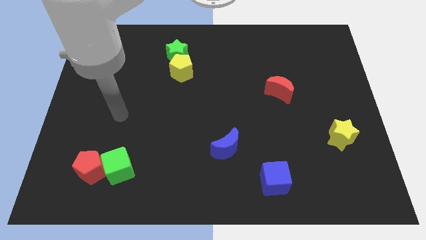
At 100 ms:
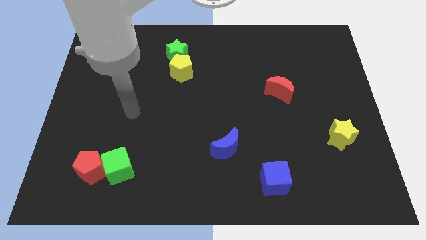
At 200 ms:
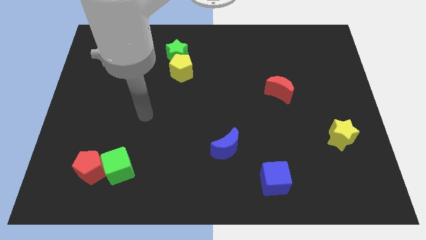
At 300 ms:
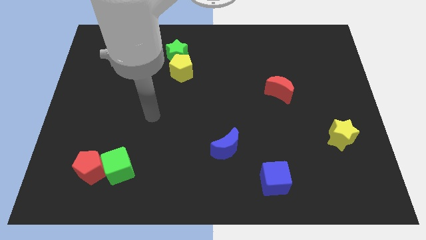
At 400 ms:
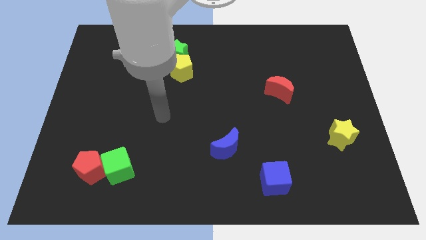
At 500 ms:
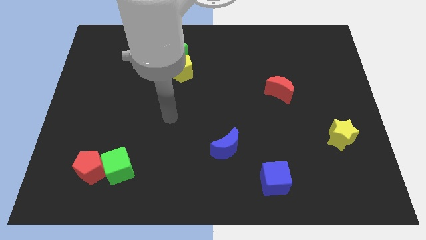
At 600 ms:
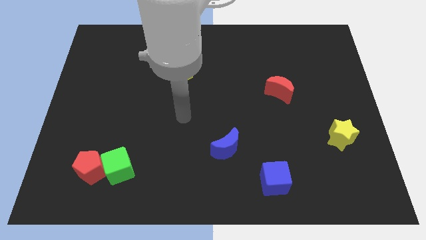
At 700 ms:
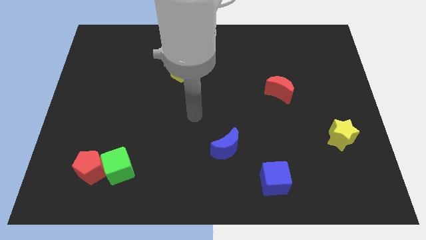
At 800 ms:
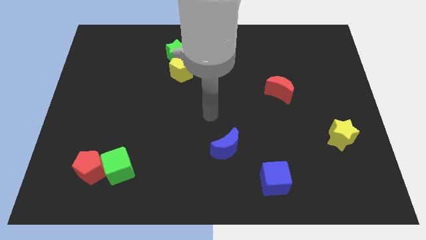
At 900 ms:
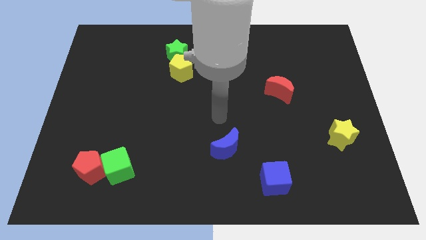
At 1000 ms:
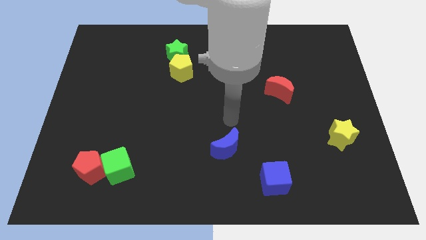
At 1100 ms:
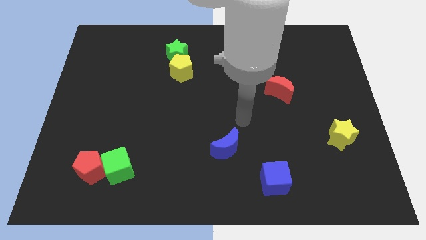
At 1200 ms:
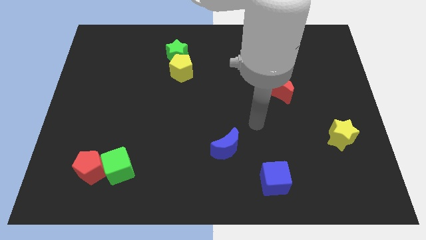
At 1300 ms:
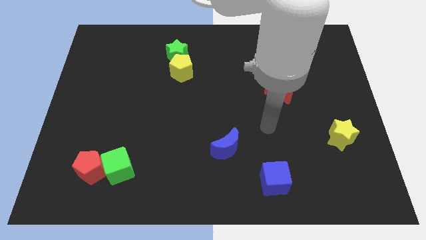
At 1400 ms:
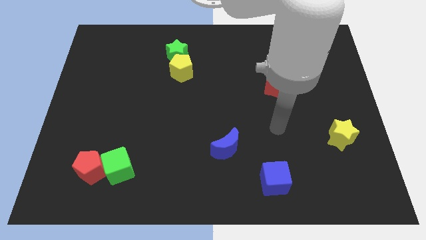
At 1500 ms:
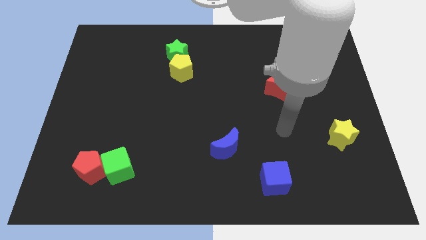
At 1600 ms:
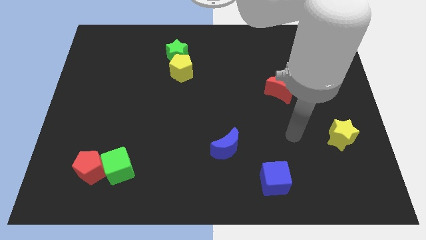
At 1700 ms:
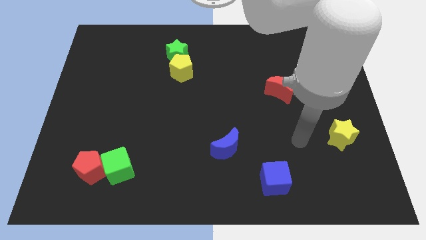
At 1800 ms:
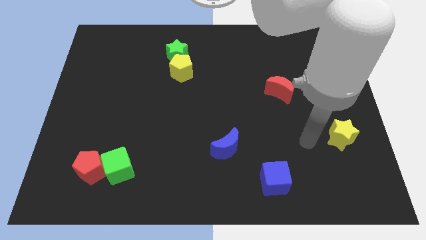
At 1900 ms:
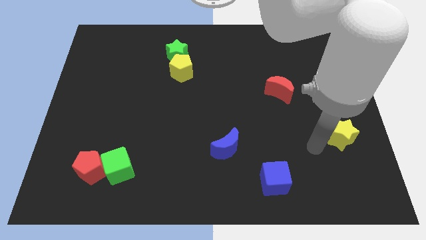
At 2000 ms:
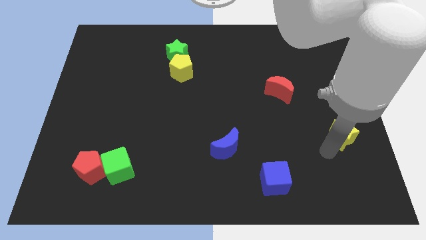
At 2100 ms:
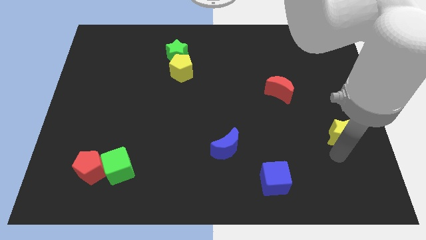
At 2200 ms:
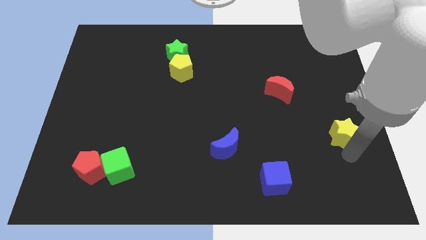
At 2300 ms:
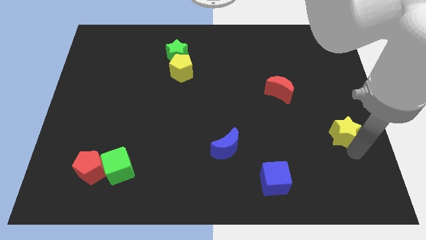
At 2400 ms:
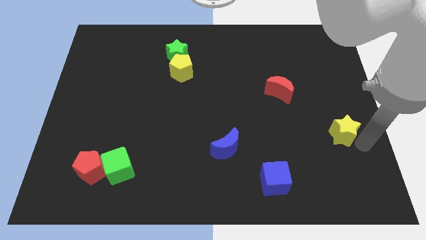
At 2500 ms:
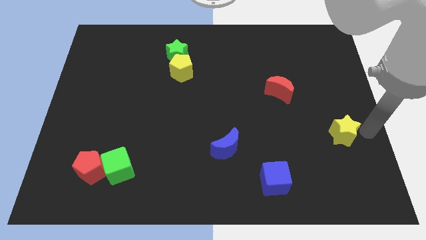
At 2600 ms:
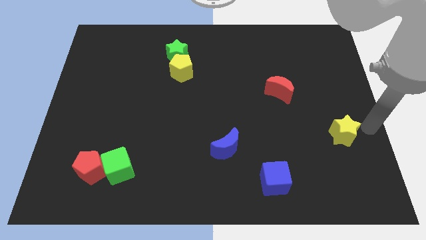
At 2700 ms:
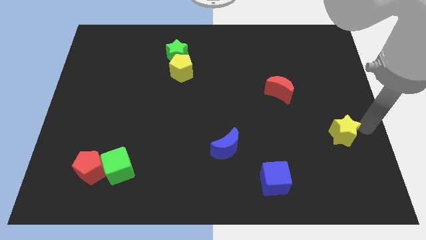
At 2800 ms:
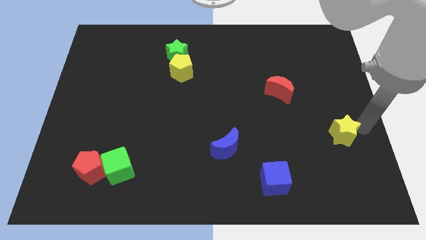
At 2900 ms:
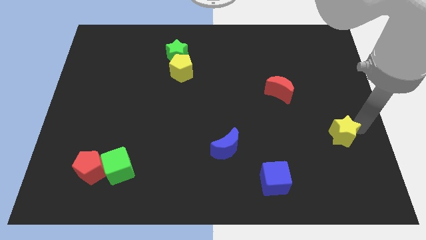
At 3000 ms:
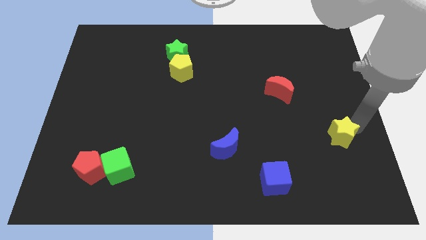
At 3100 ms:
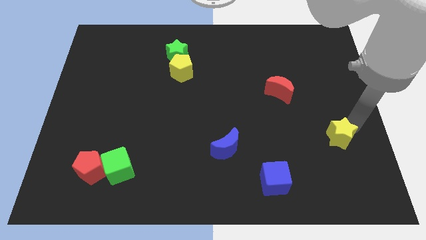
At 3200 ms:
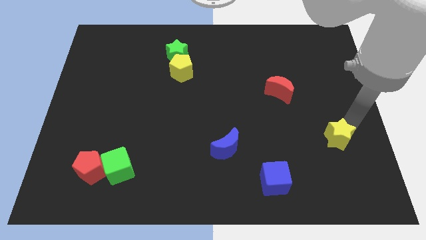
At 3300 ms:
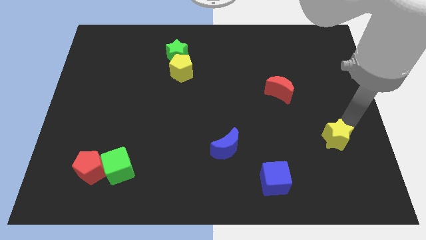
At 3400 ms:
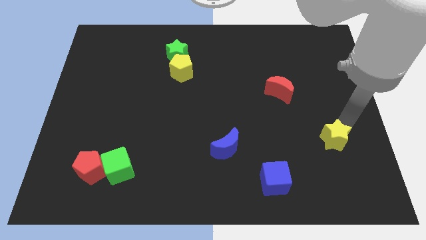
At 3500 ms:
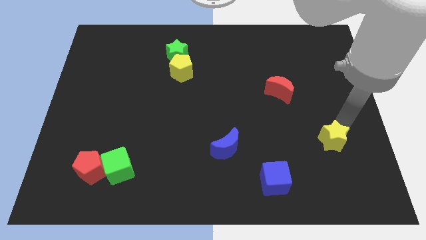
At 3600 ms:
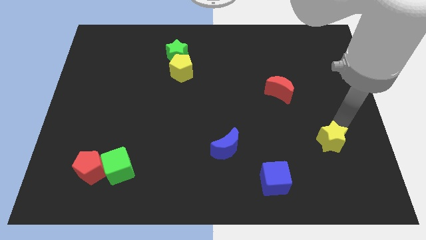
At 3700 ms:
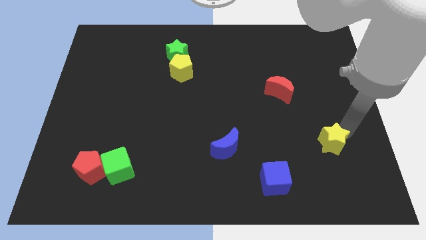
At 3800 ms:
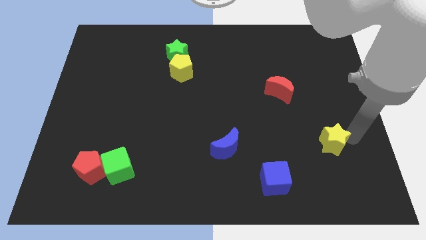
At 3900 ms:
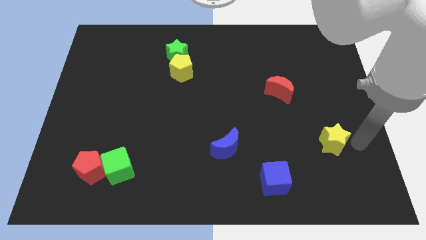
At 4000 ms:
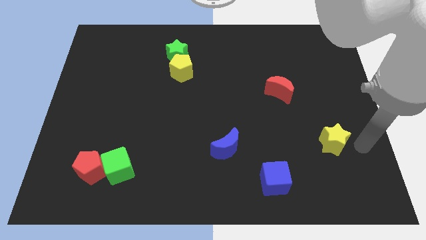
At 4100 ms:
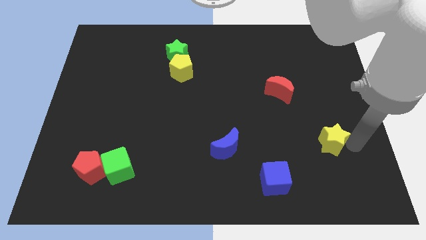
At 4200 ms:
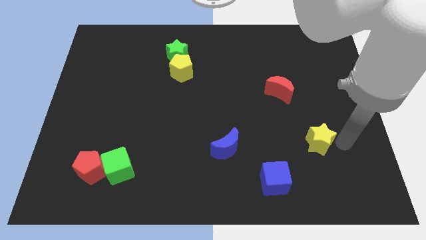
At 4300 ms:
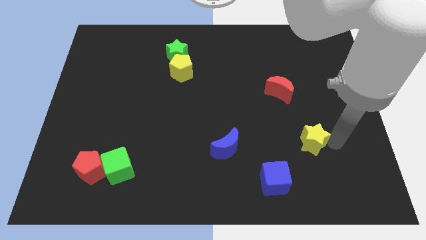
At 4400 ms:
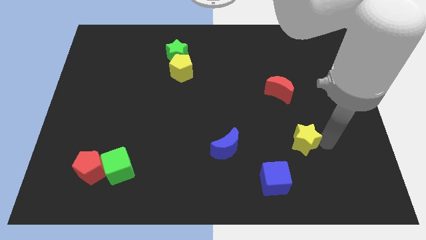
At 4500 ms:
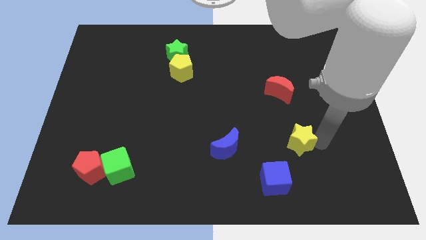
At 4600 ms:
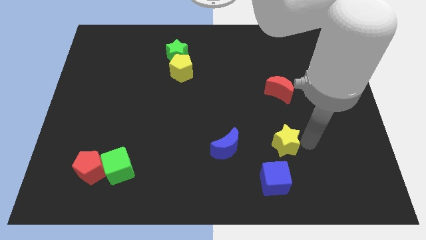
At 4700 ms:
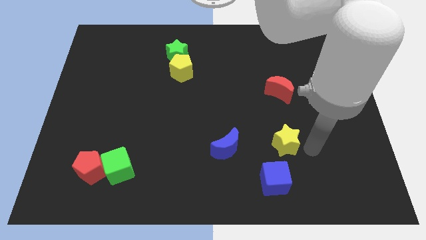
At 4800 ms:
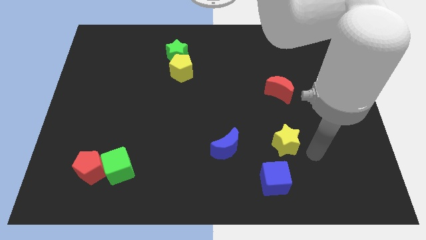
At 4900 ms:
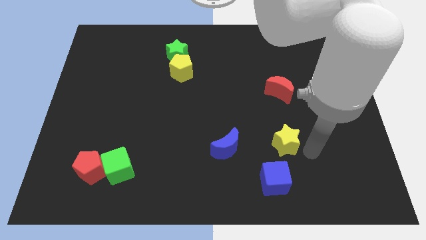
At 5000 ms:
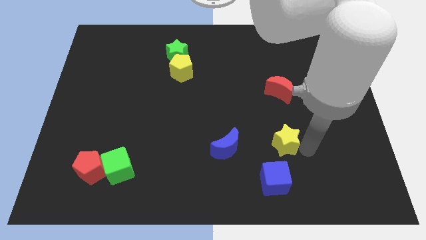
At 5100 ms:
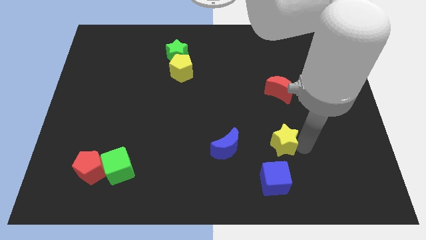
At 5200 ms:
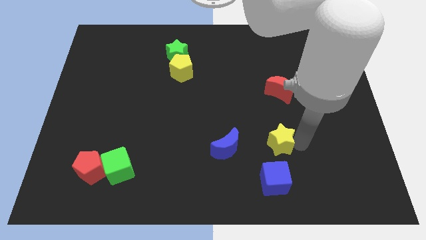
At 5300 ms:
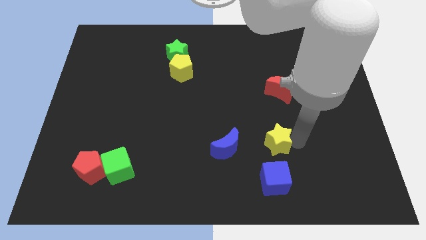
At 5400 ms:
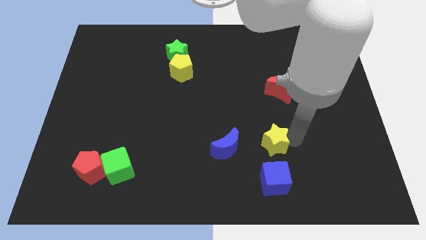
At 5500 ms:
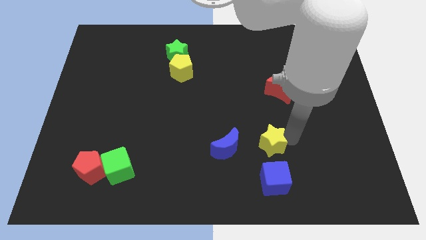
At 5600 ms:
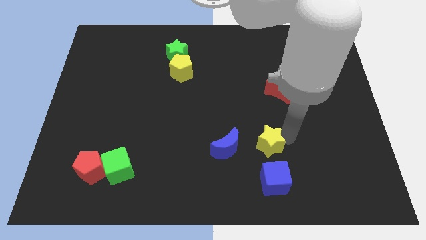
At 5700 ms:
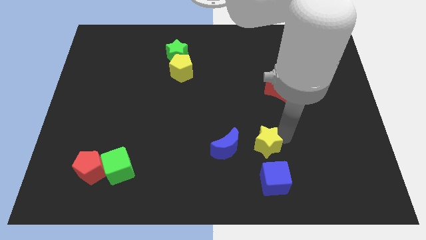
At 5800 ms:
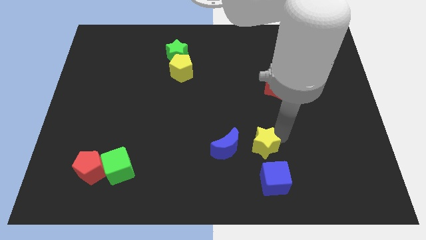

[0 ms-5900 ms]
push the yellow star to the top right of the blue moon

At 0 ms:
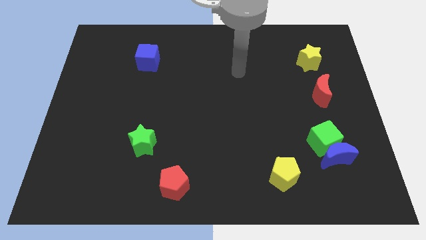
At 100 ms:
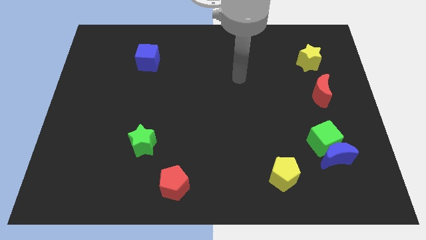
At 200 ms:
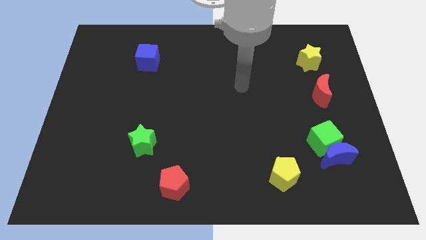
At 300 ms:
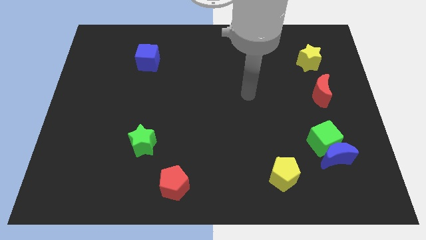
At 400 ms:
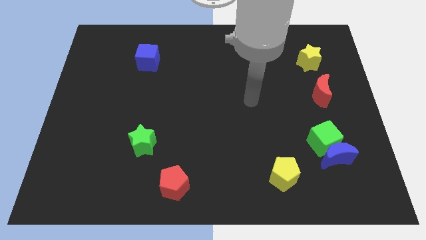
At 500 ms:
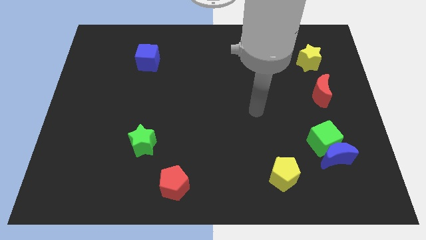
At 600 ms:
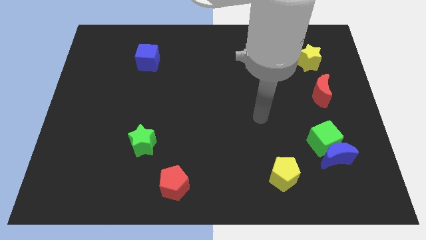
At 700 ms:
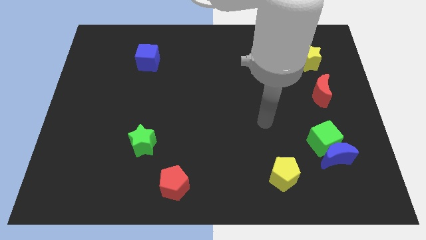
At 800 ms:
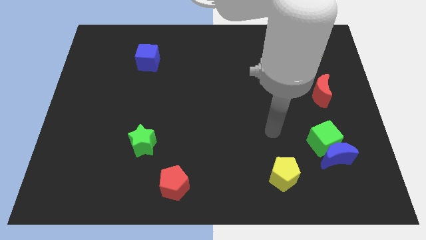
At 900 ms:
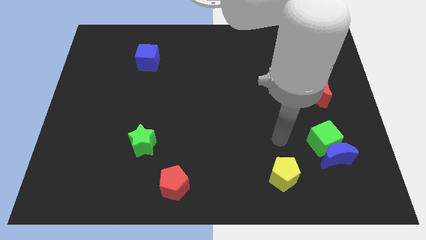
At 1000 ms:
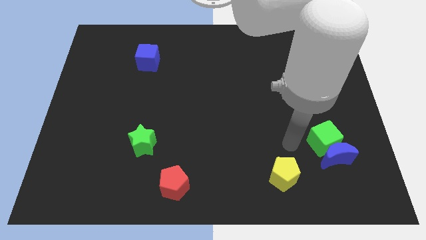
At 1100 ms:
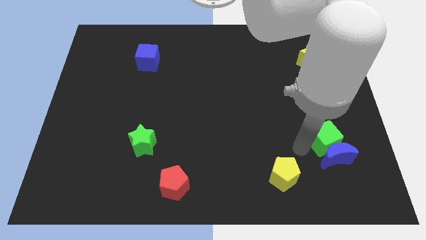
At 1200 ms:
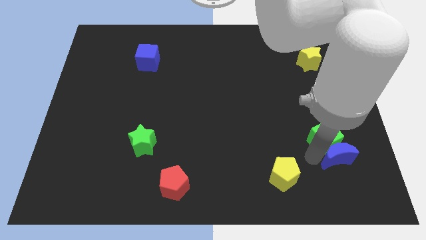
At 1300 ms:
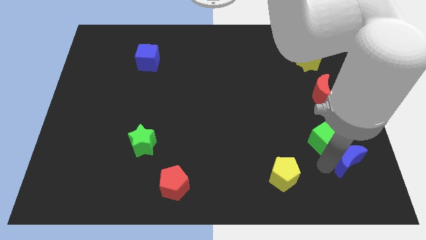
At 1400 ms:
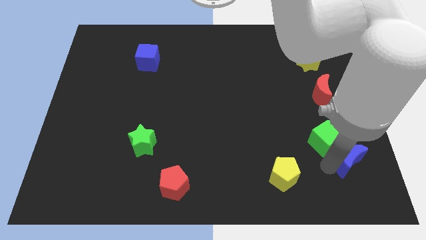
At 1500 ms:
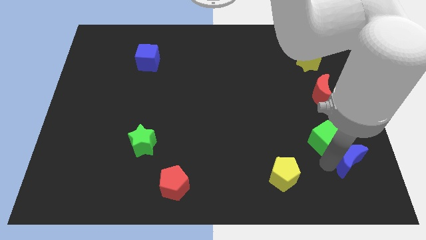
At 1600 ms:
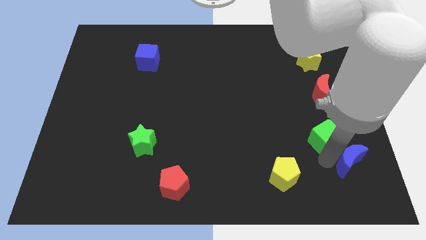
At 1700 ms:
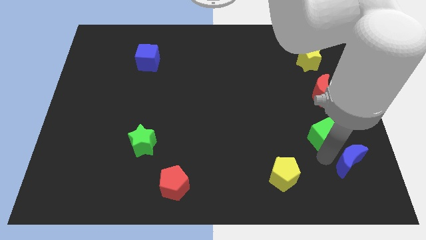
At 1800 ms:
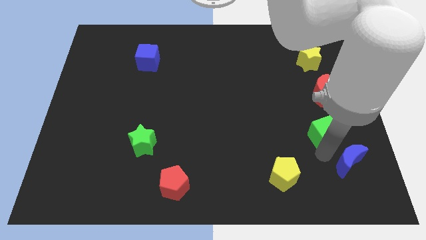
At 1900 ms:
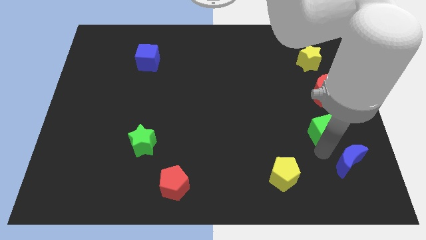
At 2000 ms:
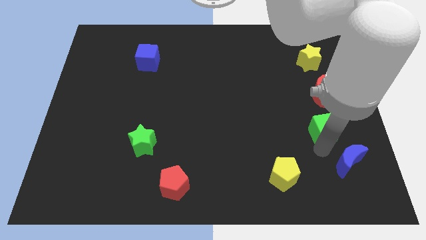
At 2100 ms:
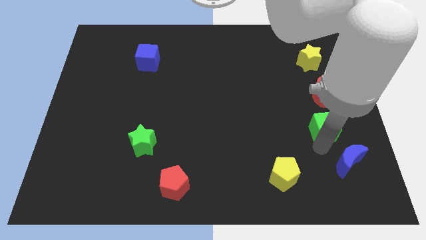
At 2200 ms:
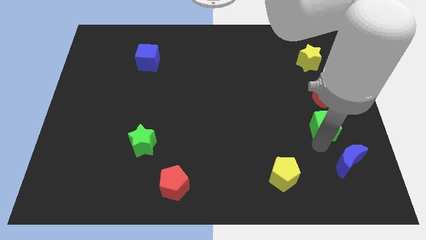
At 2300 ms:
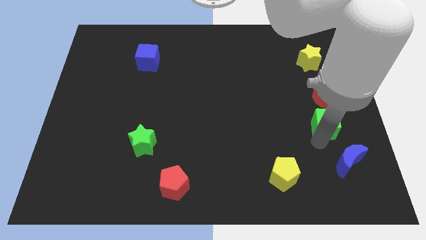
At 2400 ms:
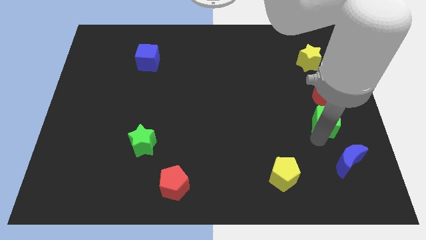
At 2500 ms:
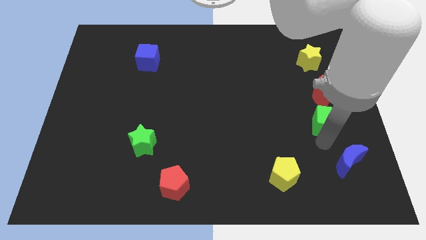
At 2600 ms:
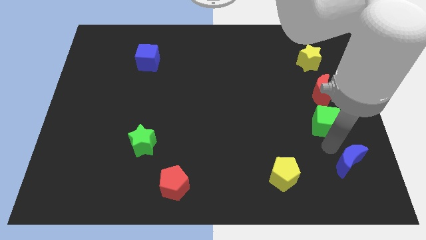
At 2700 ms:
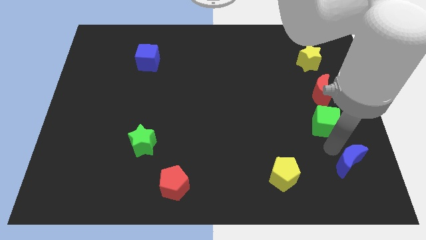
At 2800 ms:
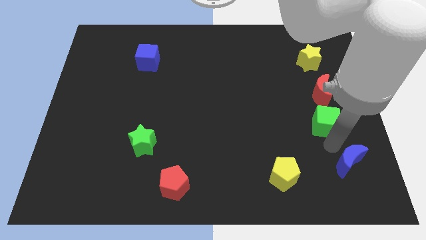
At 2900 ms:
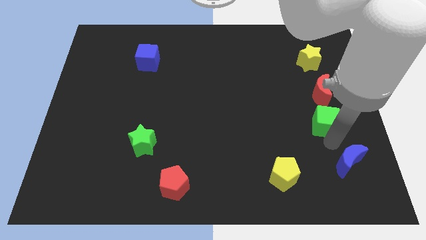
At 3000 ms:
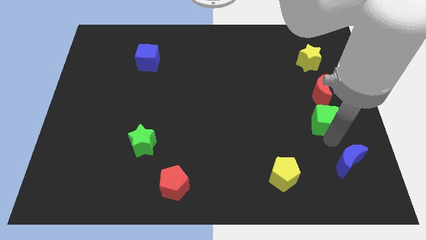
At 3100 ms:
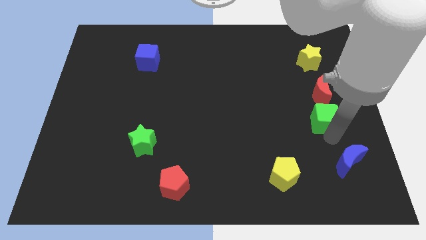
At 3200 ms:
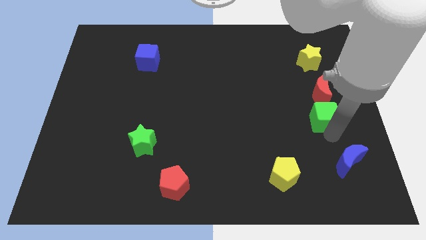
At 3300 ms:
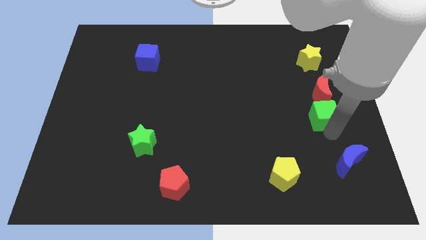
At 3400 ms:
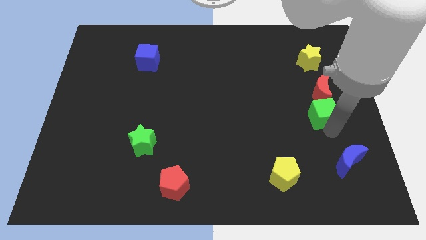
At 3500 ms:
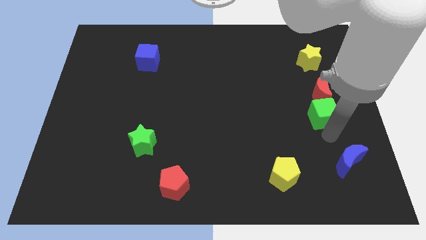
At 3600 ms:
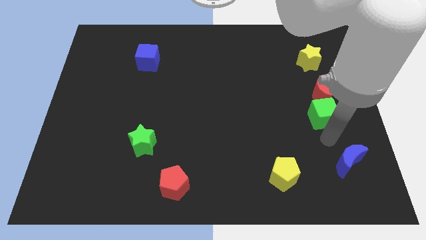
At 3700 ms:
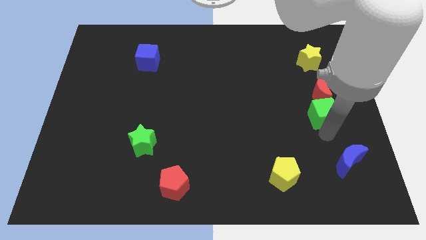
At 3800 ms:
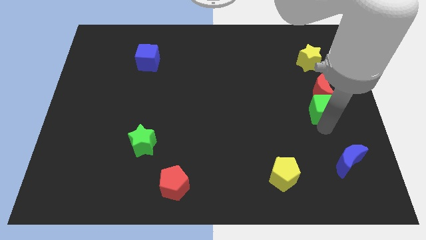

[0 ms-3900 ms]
push the green cube to the bottom side of the yellow star
